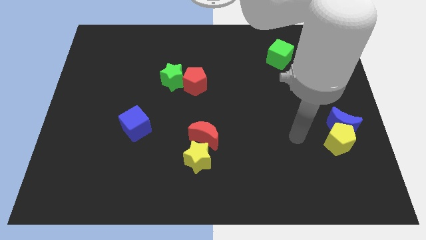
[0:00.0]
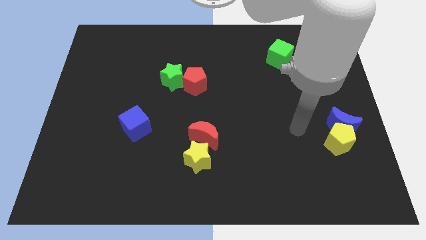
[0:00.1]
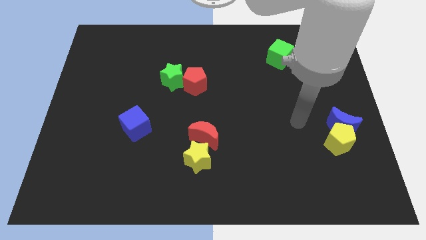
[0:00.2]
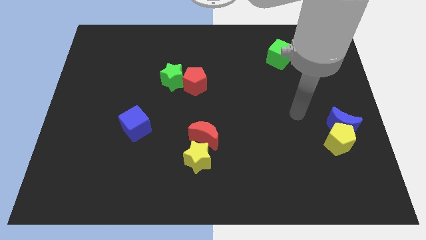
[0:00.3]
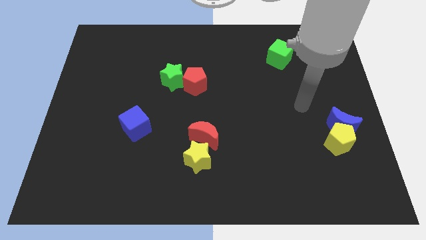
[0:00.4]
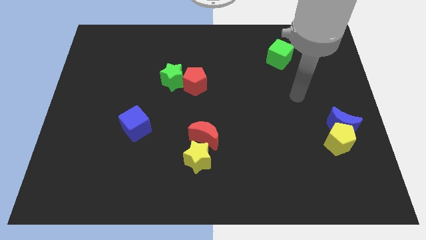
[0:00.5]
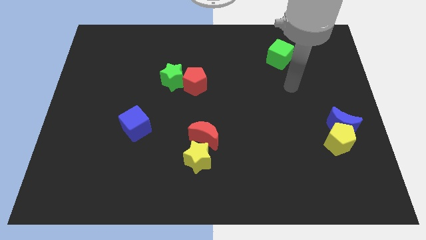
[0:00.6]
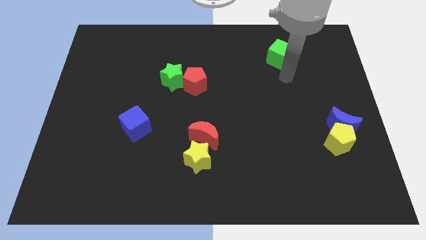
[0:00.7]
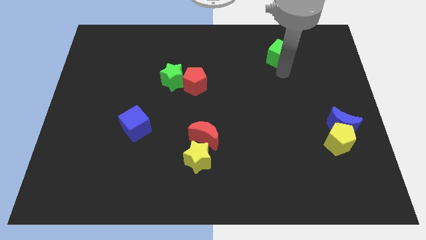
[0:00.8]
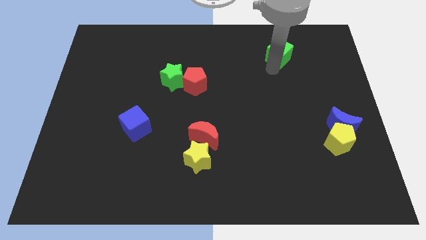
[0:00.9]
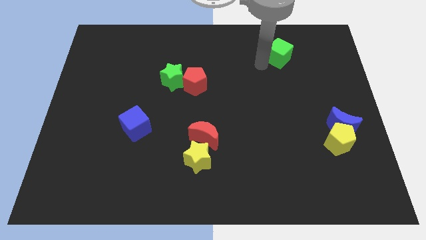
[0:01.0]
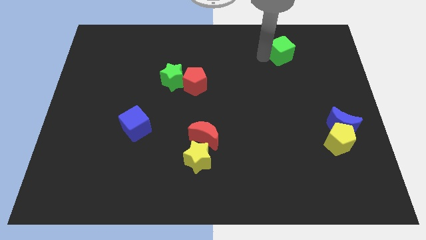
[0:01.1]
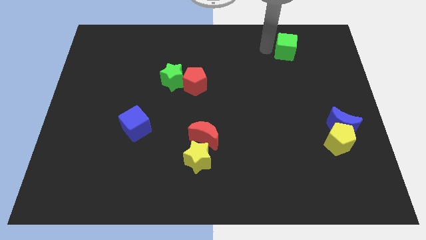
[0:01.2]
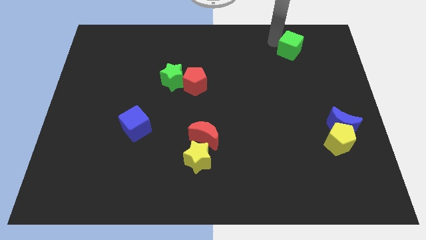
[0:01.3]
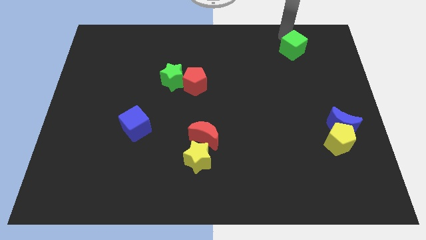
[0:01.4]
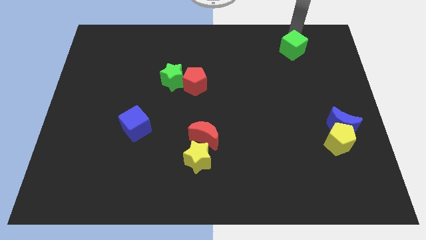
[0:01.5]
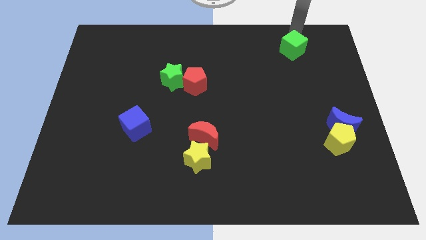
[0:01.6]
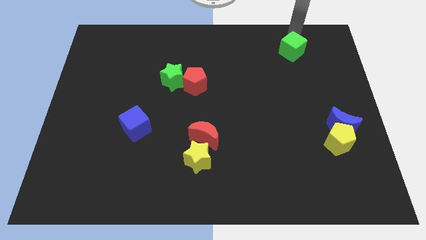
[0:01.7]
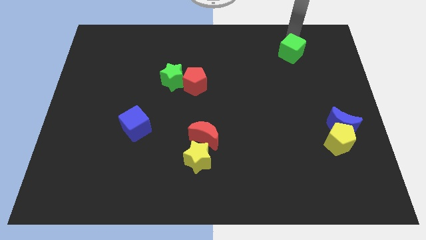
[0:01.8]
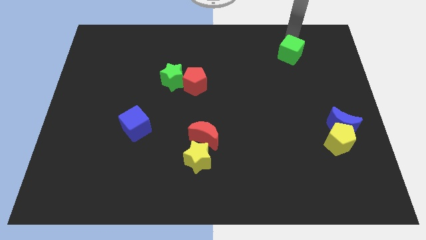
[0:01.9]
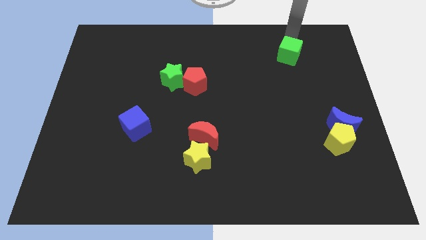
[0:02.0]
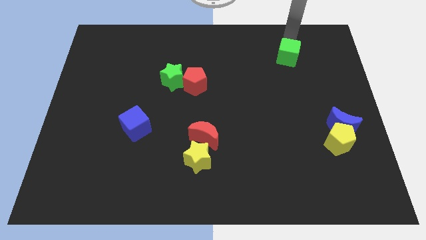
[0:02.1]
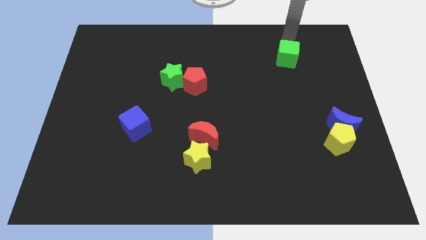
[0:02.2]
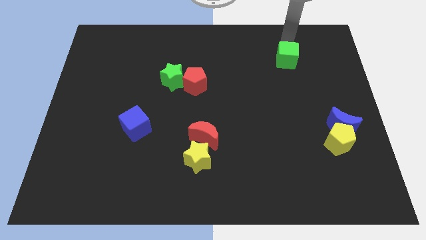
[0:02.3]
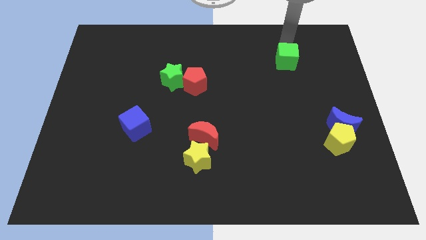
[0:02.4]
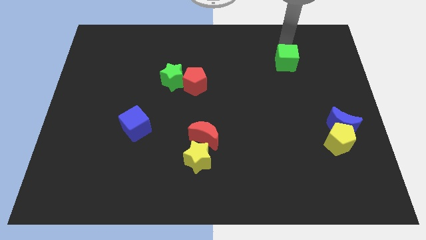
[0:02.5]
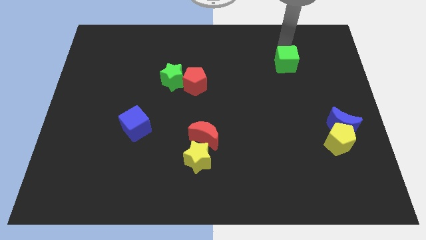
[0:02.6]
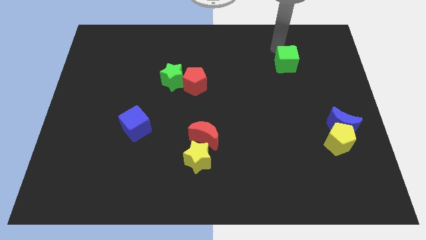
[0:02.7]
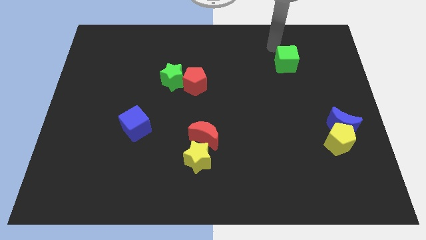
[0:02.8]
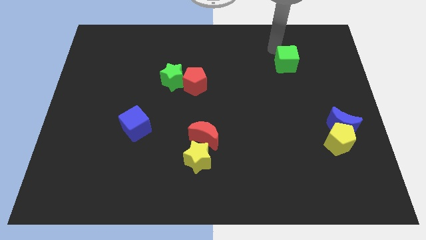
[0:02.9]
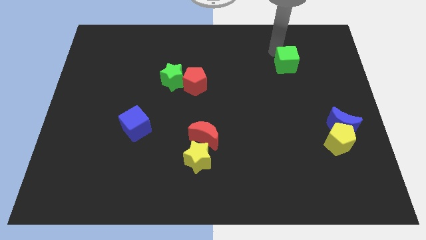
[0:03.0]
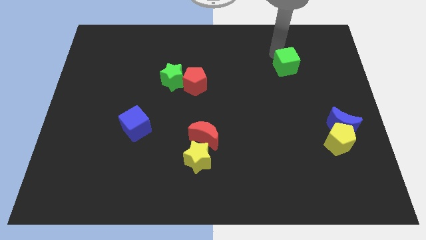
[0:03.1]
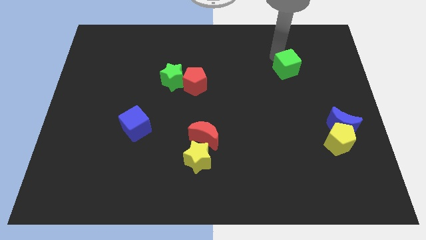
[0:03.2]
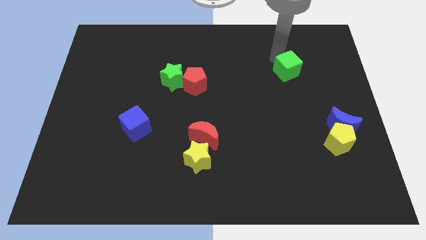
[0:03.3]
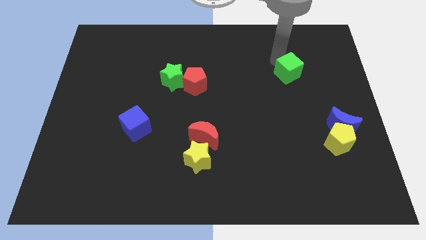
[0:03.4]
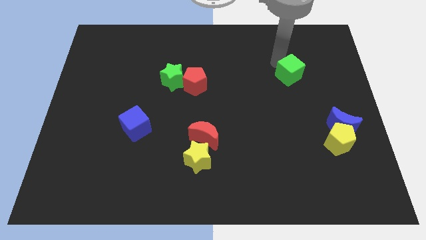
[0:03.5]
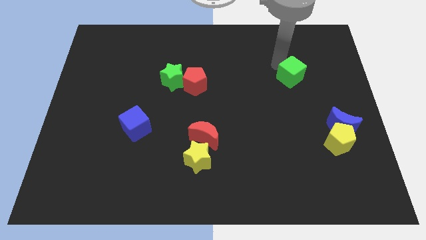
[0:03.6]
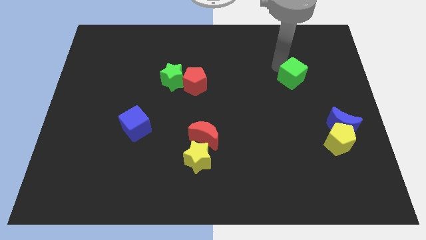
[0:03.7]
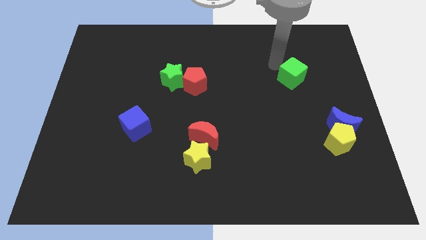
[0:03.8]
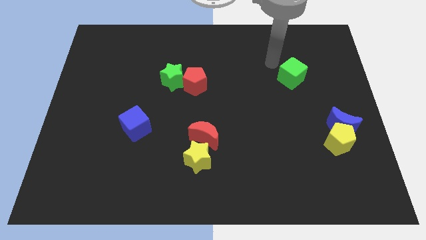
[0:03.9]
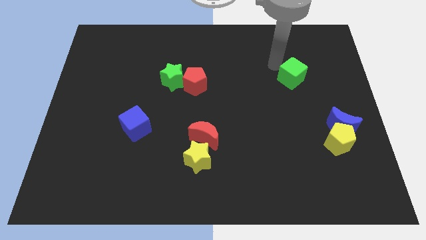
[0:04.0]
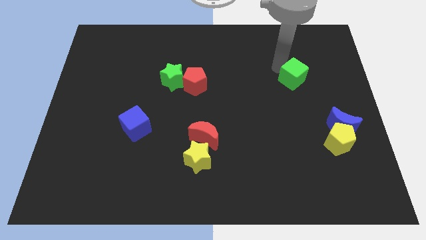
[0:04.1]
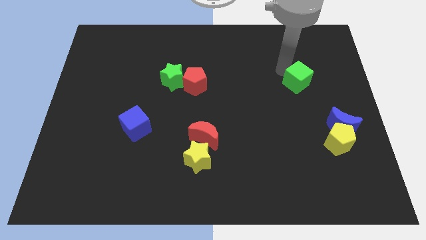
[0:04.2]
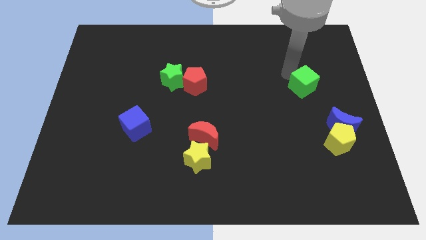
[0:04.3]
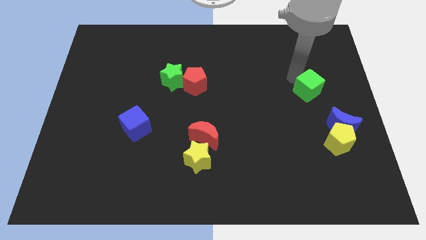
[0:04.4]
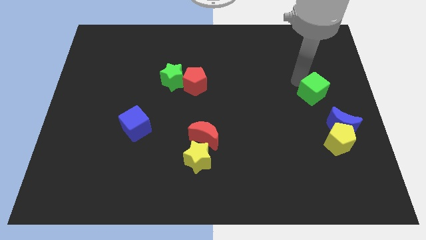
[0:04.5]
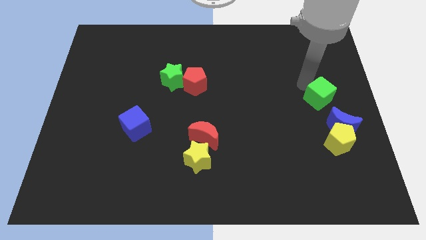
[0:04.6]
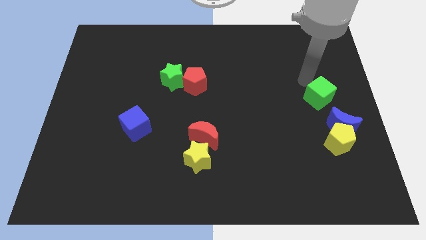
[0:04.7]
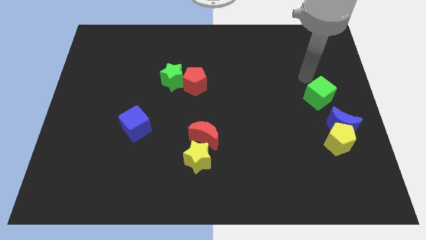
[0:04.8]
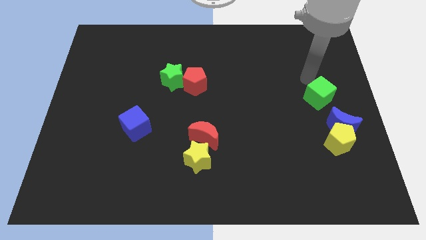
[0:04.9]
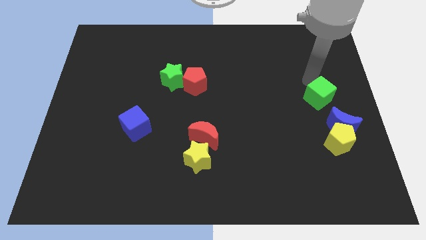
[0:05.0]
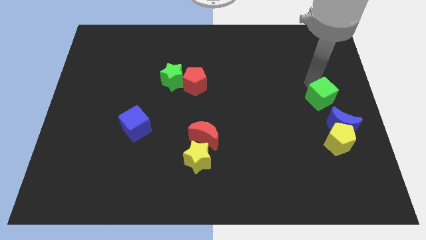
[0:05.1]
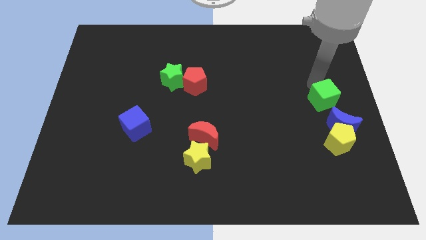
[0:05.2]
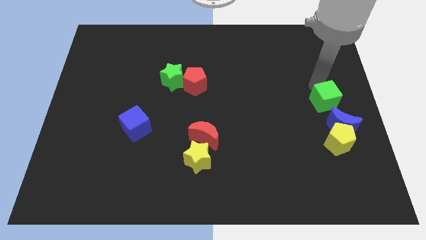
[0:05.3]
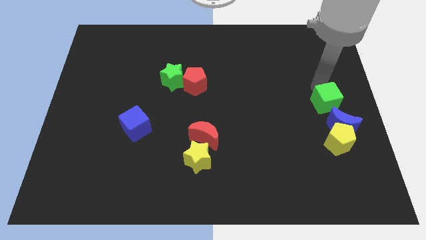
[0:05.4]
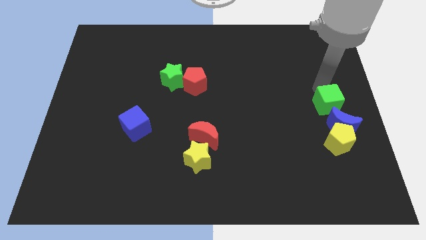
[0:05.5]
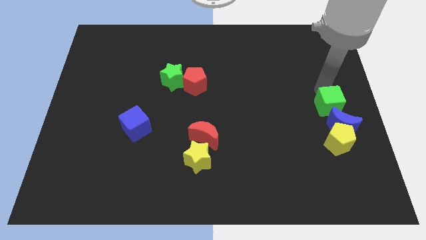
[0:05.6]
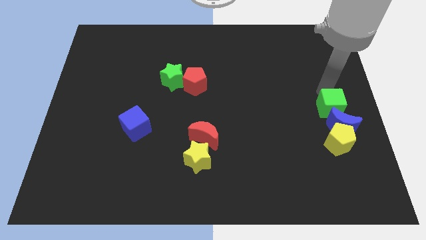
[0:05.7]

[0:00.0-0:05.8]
push the green cube towards the blue moon

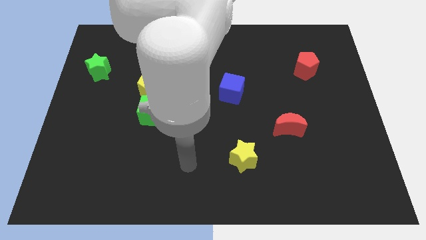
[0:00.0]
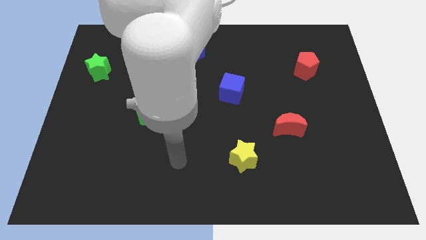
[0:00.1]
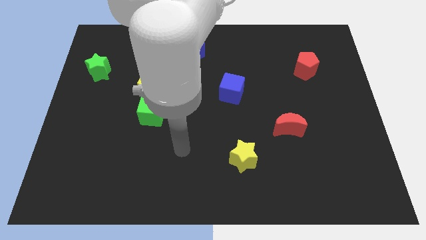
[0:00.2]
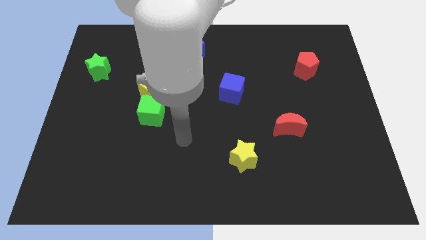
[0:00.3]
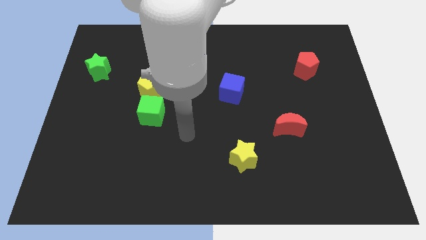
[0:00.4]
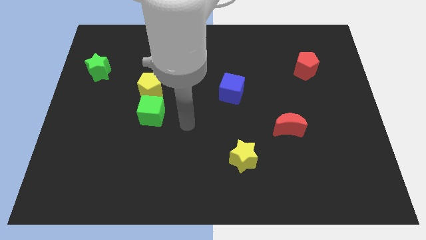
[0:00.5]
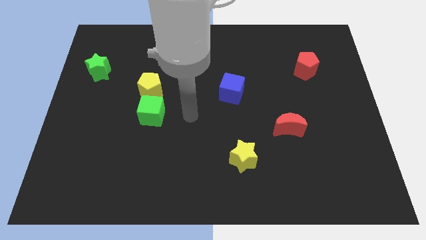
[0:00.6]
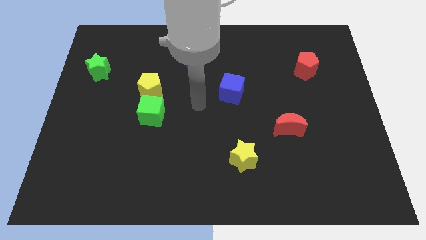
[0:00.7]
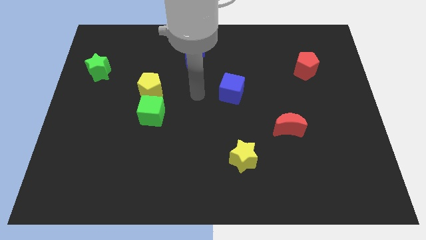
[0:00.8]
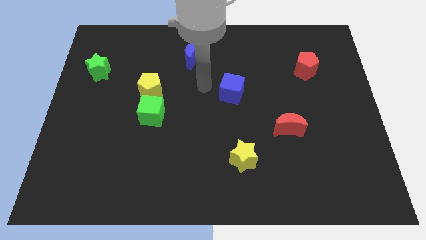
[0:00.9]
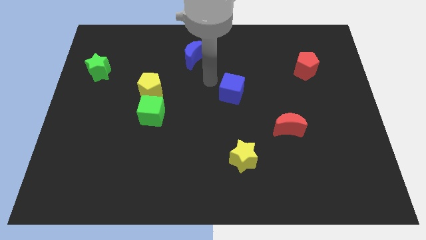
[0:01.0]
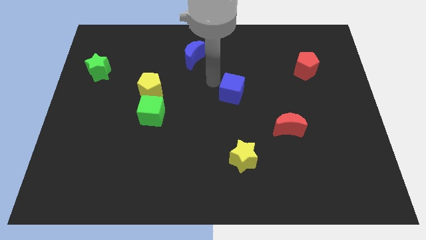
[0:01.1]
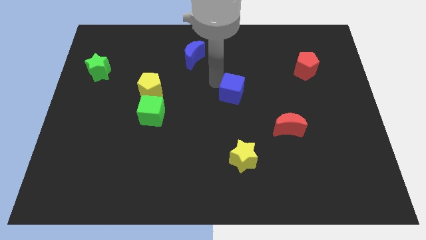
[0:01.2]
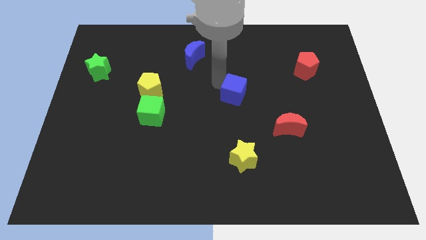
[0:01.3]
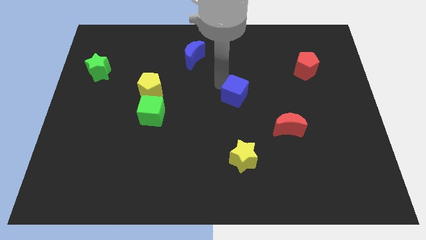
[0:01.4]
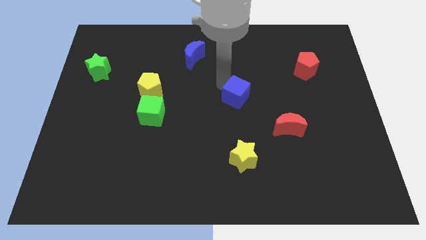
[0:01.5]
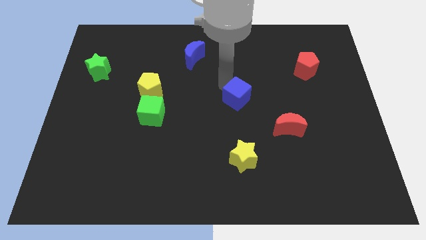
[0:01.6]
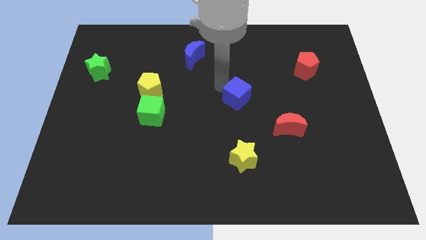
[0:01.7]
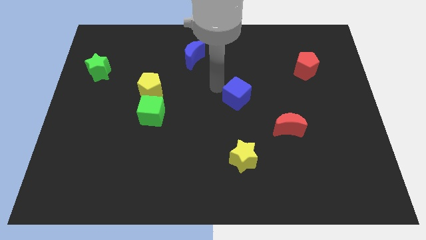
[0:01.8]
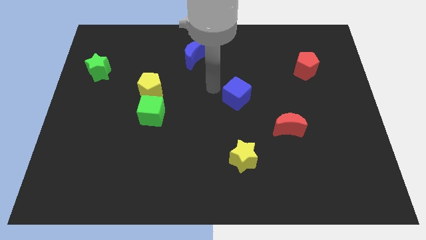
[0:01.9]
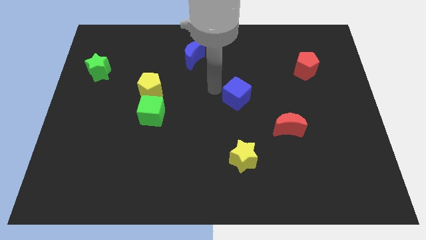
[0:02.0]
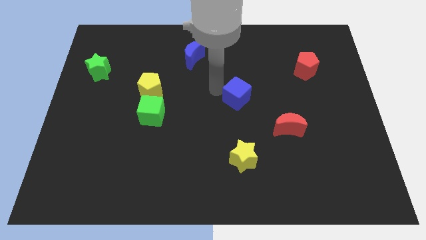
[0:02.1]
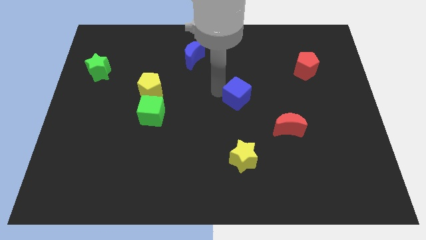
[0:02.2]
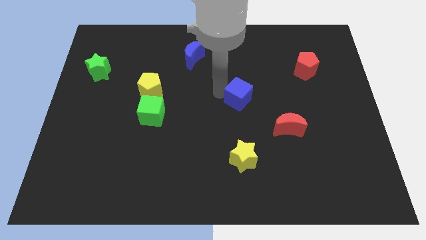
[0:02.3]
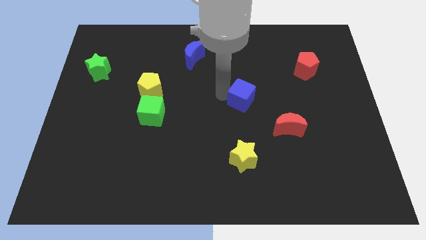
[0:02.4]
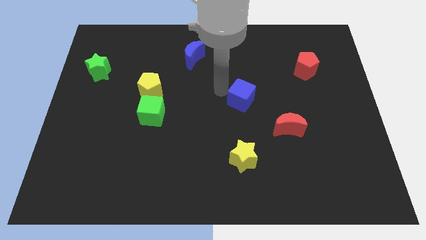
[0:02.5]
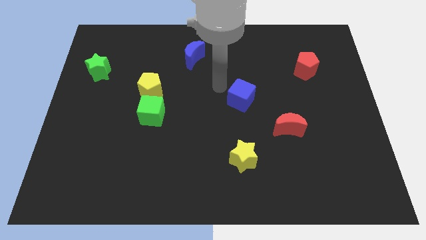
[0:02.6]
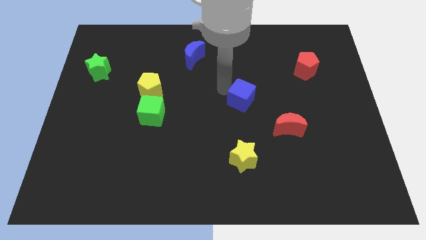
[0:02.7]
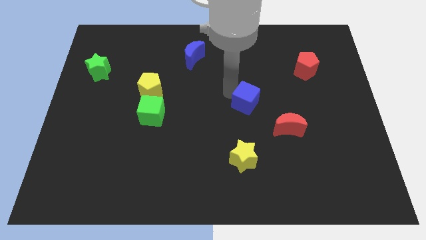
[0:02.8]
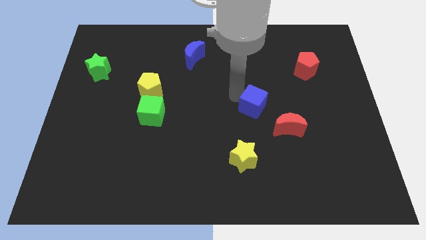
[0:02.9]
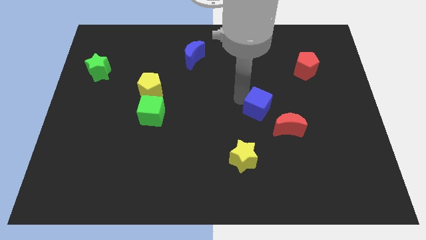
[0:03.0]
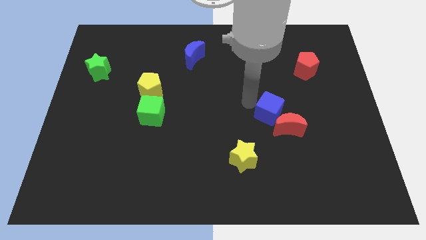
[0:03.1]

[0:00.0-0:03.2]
put the blue cube close to the red moon
